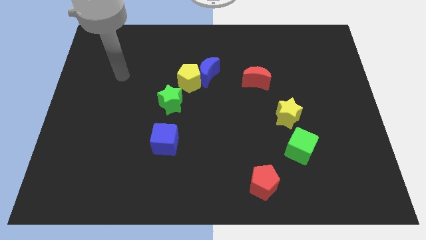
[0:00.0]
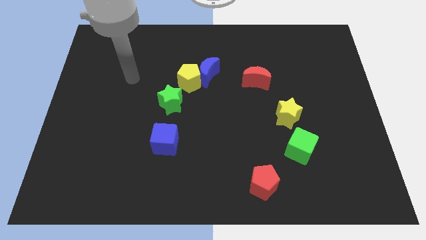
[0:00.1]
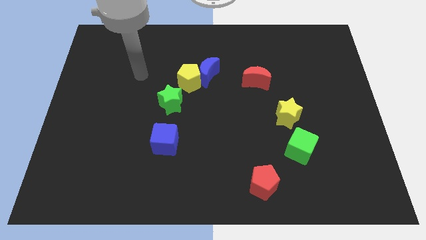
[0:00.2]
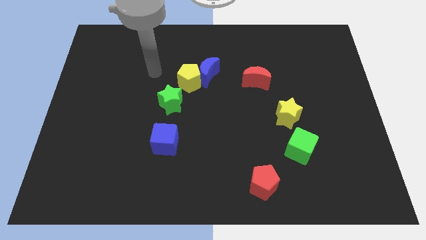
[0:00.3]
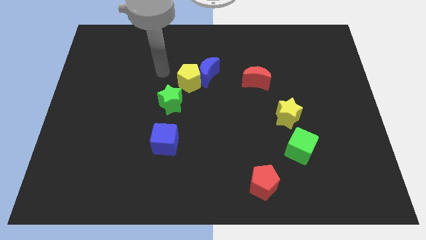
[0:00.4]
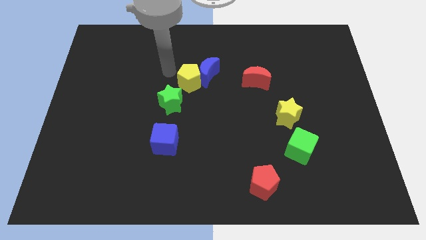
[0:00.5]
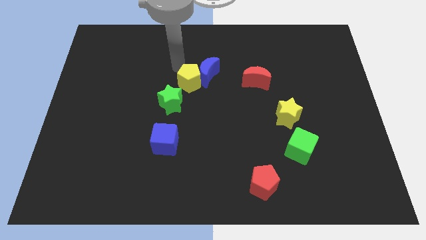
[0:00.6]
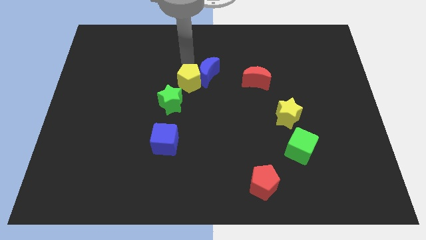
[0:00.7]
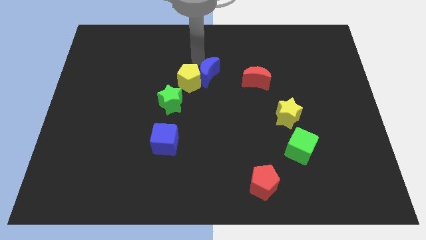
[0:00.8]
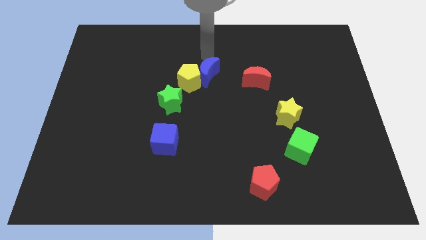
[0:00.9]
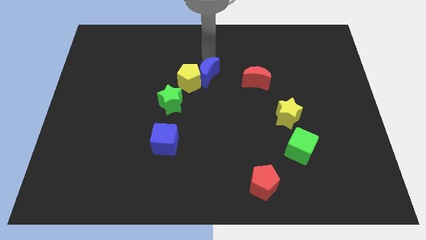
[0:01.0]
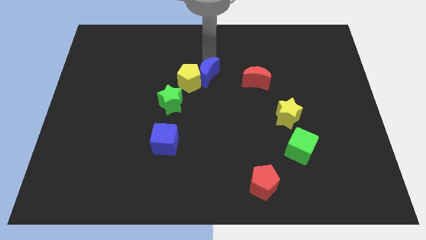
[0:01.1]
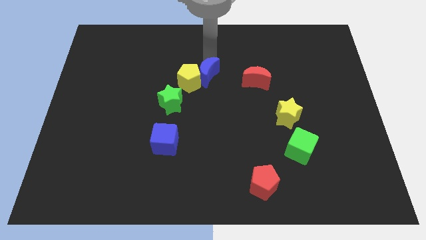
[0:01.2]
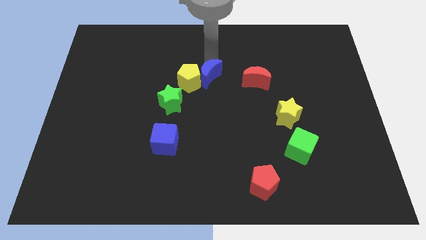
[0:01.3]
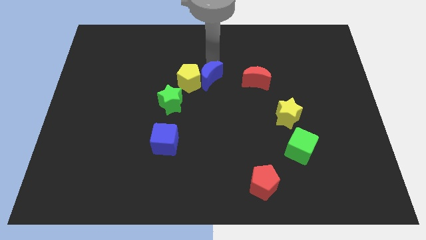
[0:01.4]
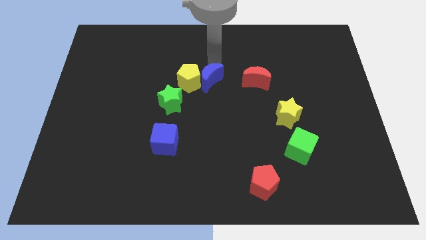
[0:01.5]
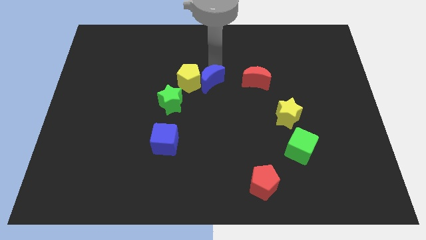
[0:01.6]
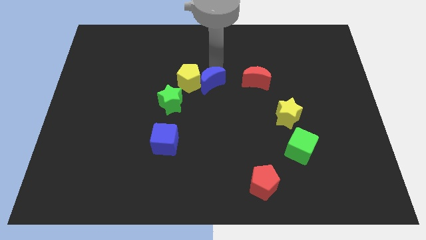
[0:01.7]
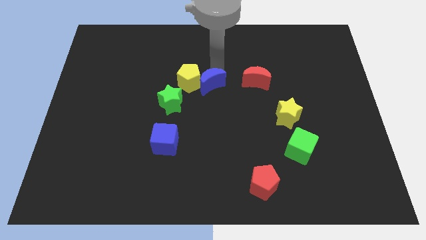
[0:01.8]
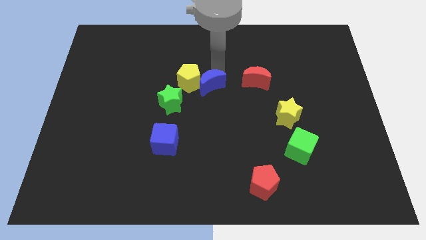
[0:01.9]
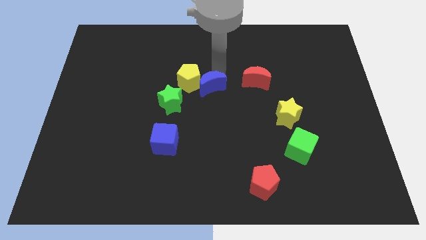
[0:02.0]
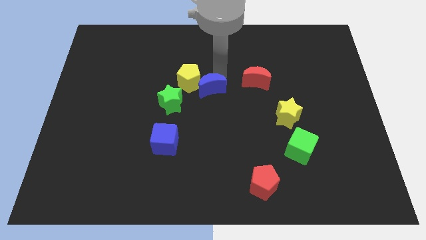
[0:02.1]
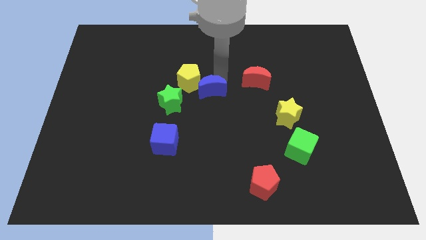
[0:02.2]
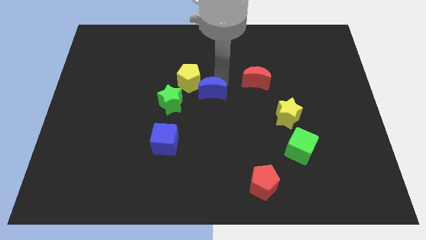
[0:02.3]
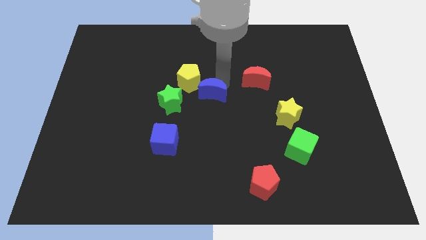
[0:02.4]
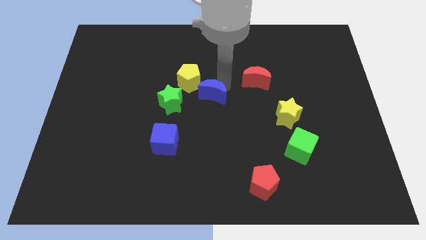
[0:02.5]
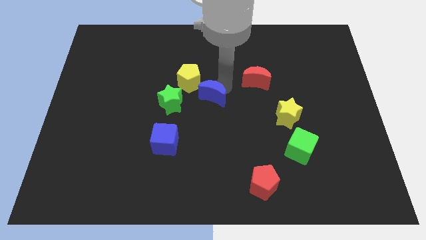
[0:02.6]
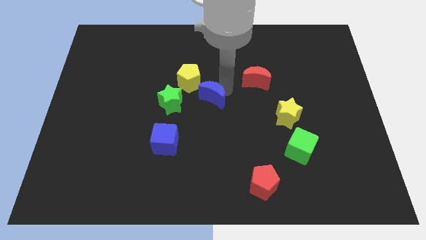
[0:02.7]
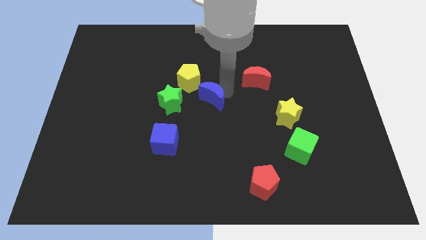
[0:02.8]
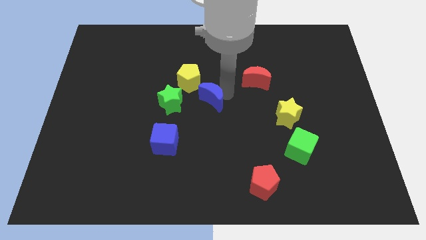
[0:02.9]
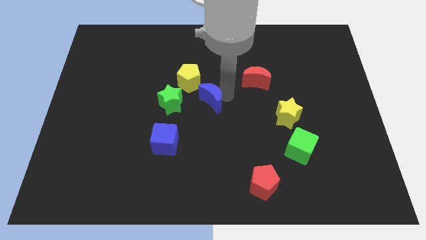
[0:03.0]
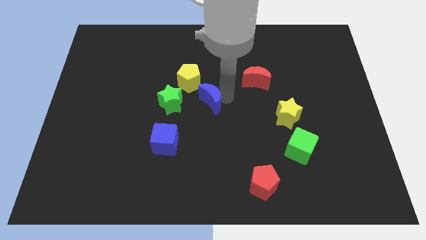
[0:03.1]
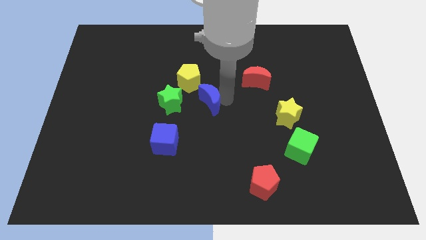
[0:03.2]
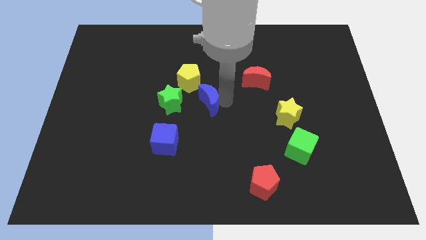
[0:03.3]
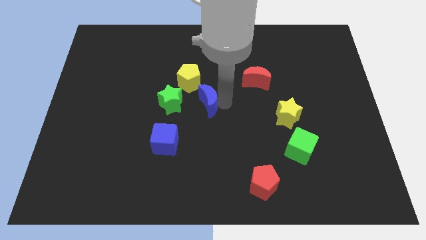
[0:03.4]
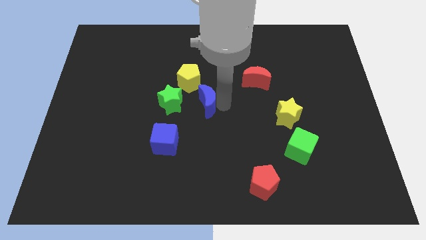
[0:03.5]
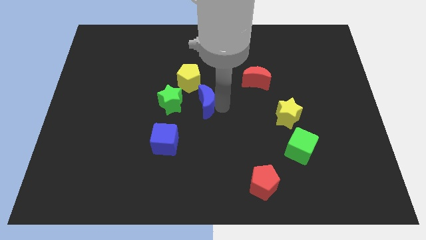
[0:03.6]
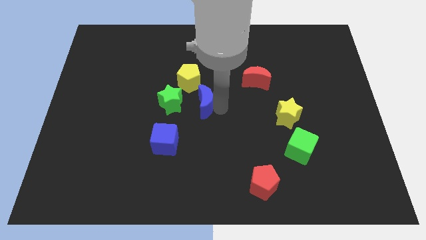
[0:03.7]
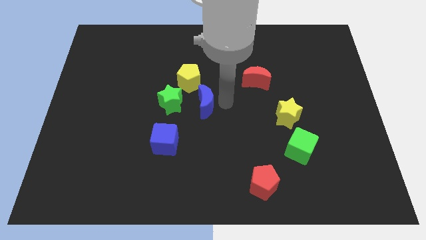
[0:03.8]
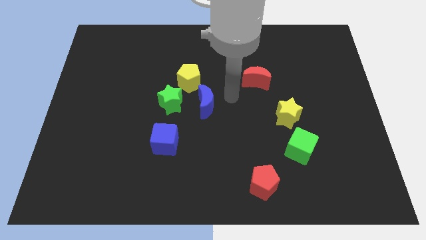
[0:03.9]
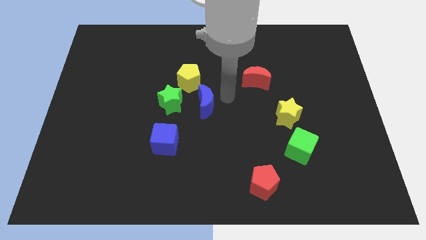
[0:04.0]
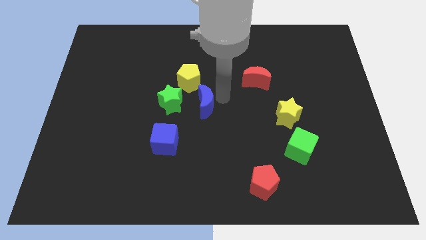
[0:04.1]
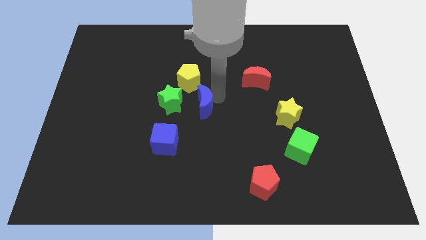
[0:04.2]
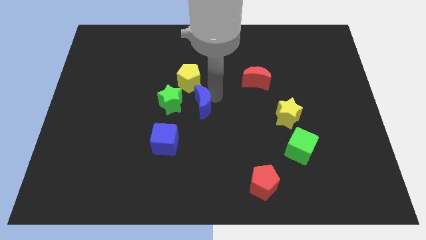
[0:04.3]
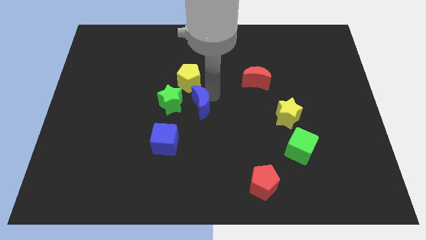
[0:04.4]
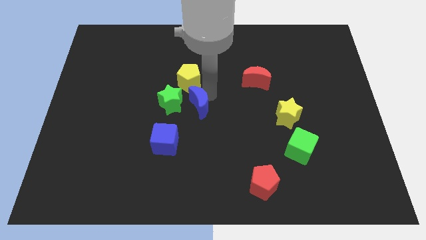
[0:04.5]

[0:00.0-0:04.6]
push the blue moon diagonally down and to the left slightly

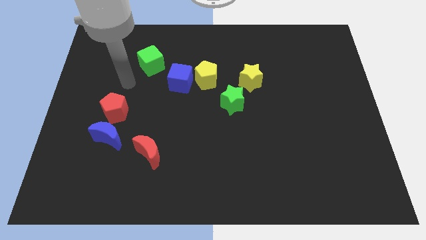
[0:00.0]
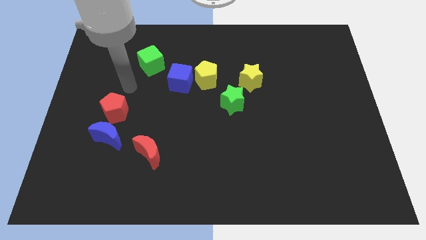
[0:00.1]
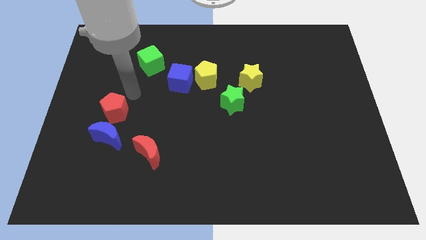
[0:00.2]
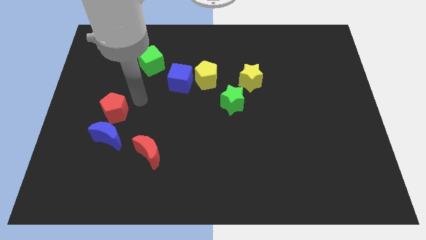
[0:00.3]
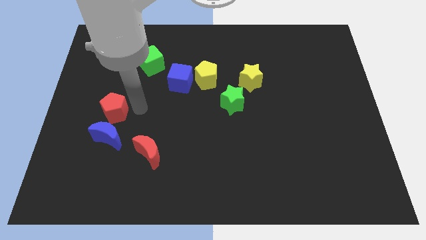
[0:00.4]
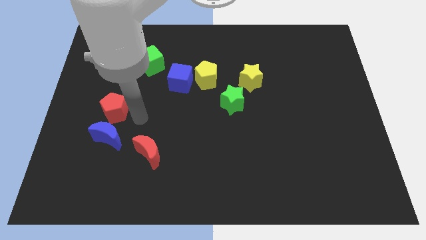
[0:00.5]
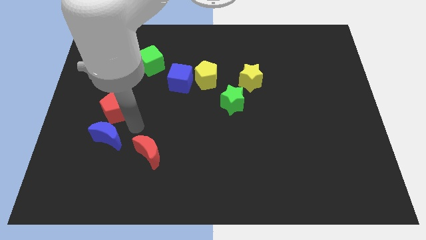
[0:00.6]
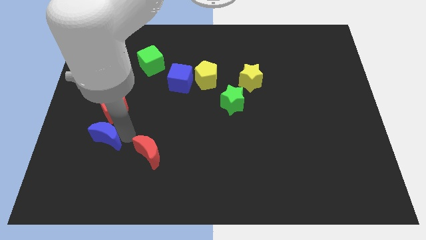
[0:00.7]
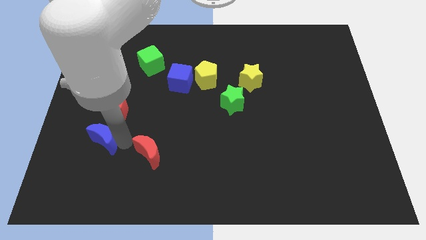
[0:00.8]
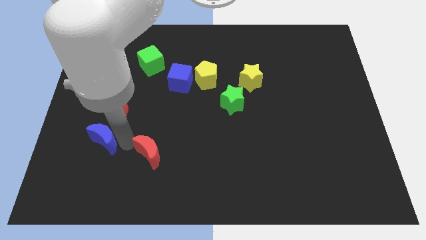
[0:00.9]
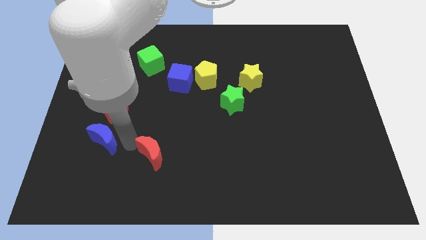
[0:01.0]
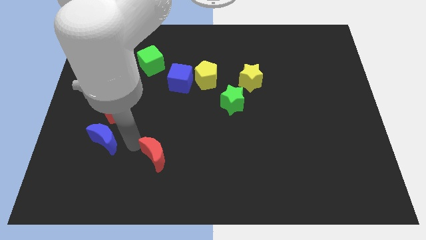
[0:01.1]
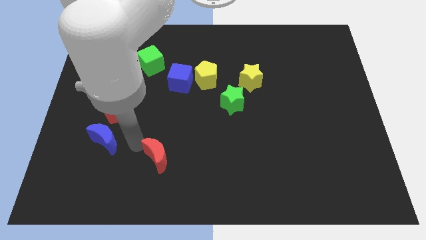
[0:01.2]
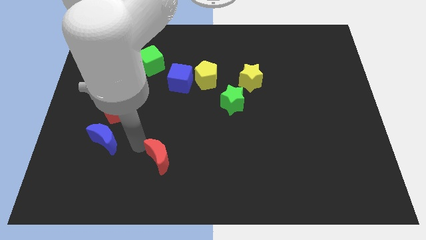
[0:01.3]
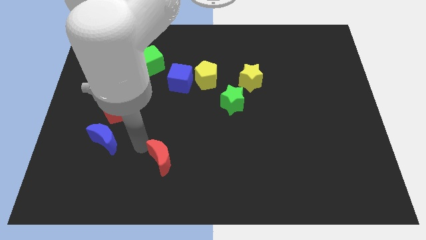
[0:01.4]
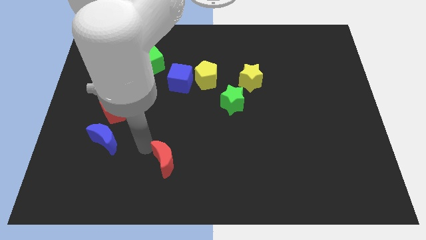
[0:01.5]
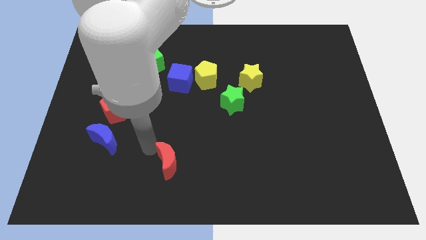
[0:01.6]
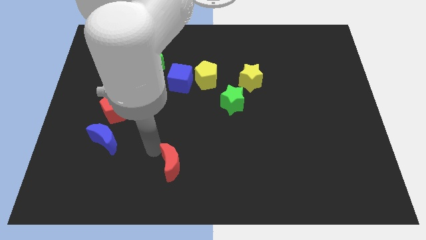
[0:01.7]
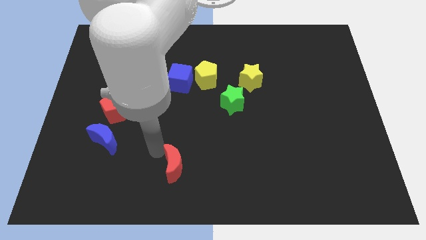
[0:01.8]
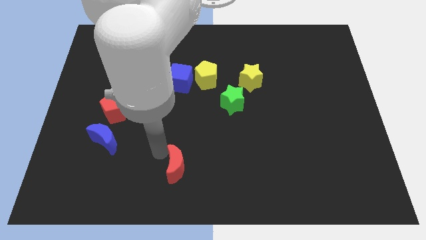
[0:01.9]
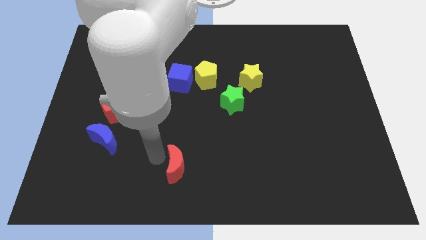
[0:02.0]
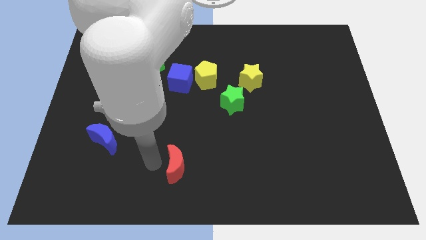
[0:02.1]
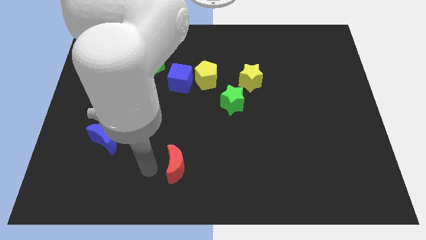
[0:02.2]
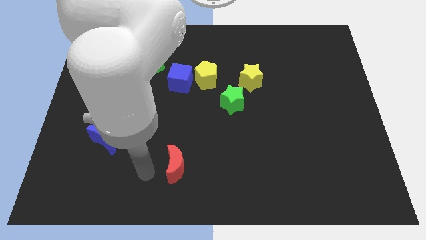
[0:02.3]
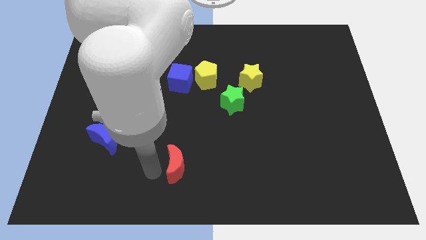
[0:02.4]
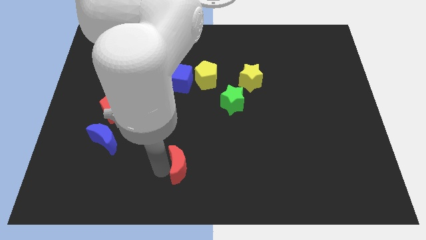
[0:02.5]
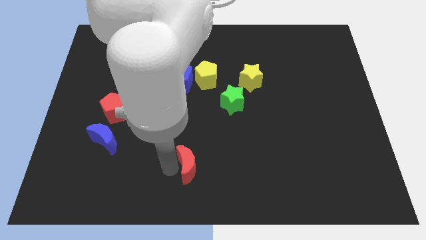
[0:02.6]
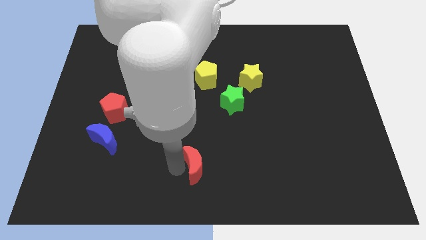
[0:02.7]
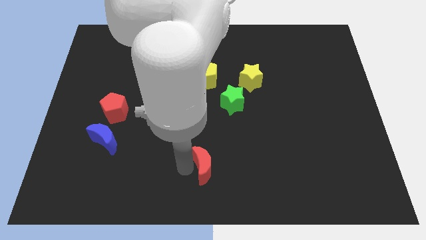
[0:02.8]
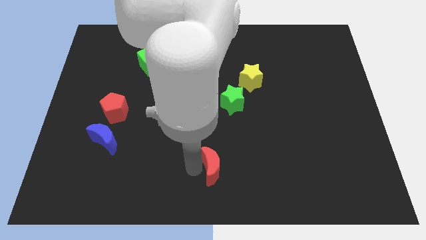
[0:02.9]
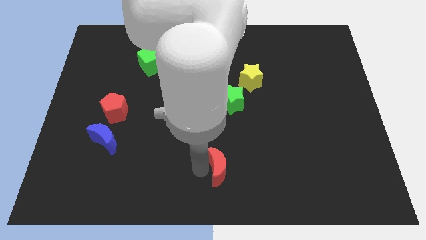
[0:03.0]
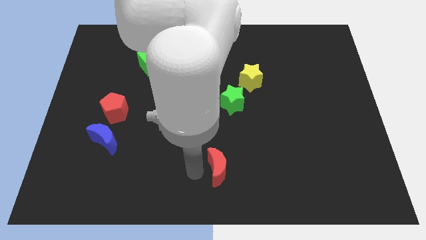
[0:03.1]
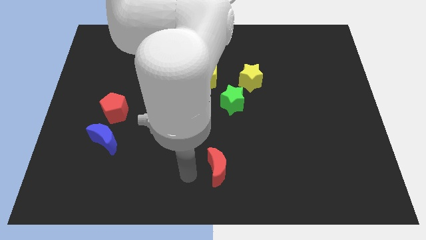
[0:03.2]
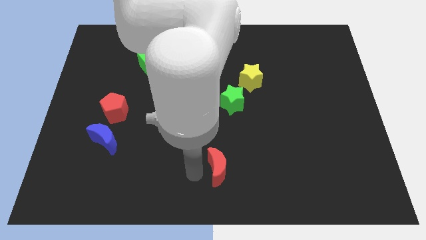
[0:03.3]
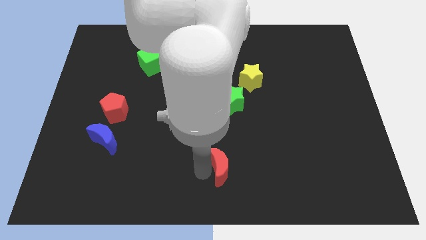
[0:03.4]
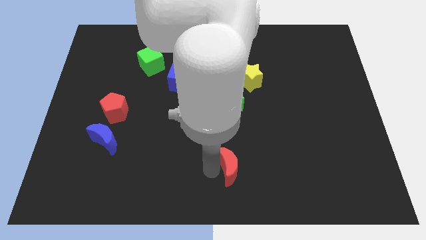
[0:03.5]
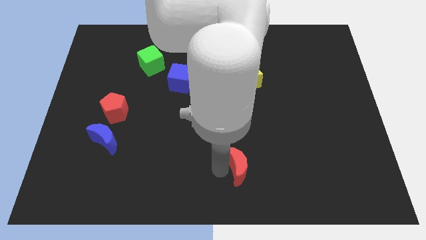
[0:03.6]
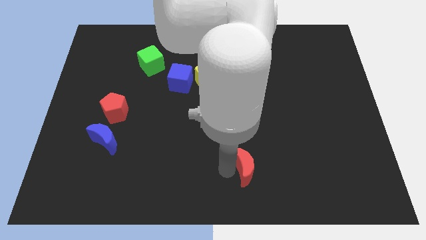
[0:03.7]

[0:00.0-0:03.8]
move the red moon to the right
